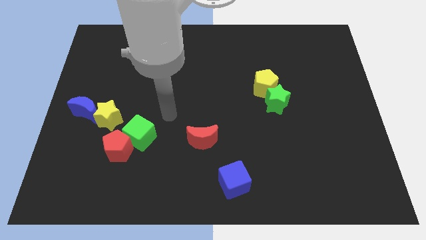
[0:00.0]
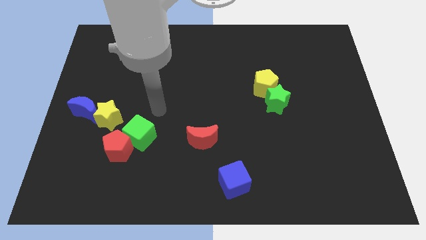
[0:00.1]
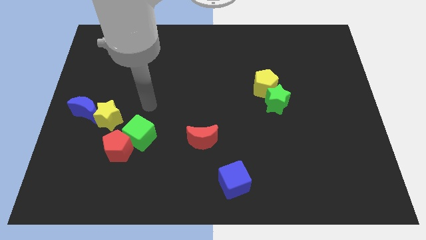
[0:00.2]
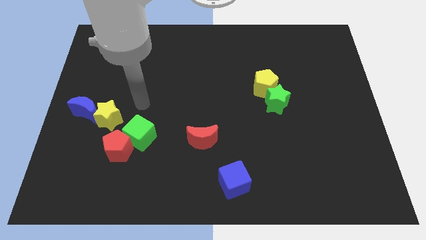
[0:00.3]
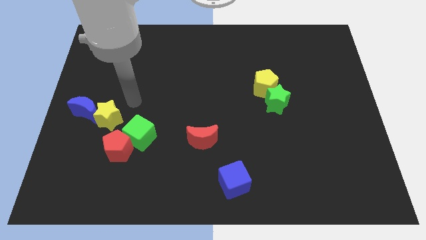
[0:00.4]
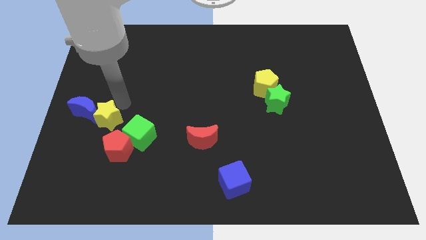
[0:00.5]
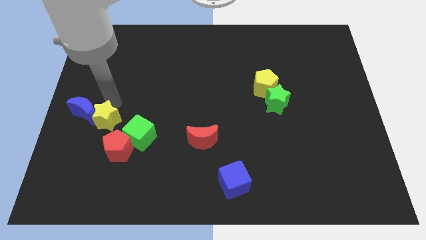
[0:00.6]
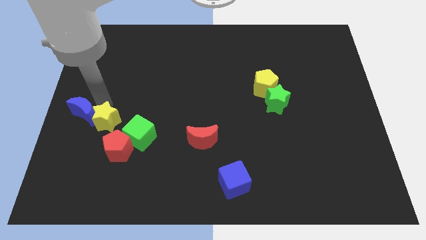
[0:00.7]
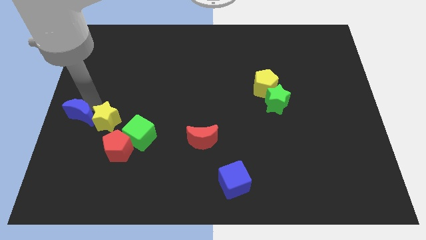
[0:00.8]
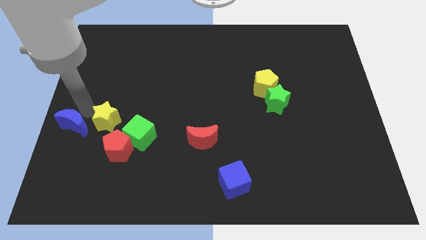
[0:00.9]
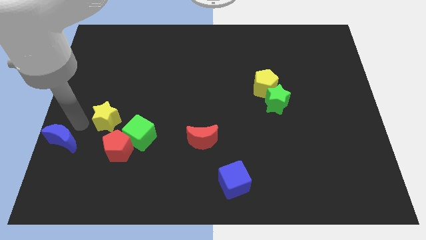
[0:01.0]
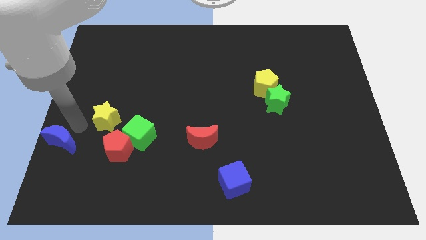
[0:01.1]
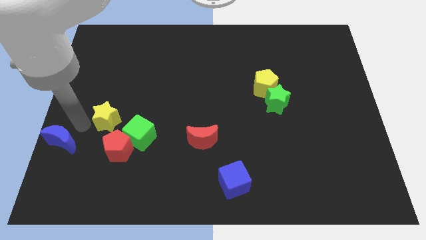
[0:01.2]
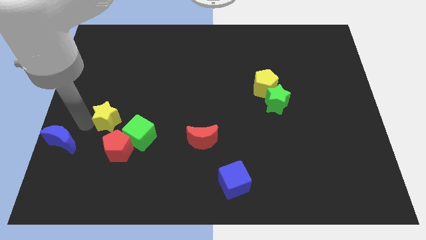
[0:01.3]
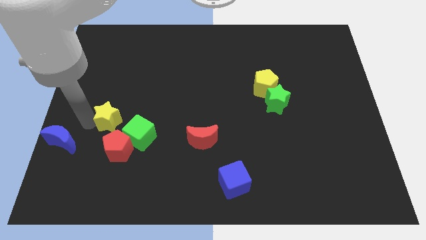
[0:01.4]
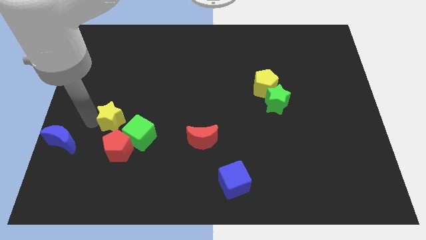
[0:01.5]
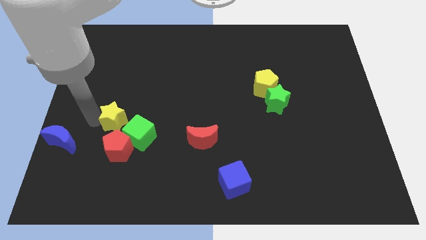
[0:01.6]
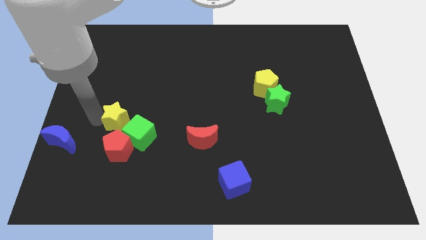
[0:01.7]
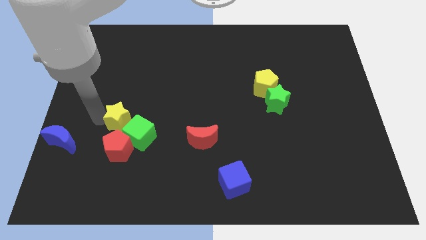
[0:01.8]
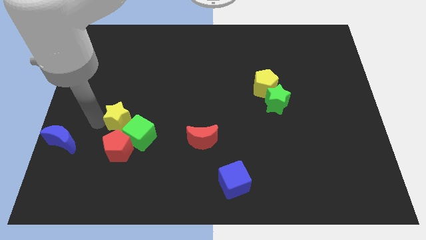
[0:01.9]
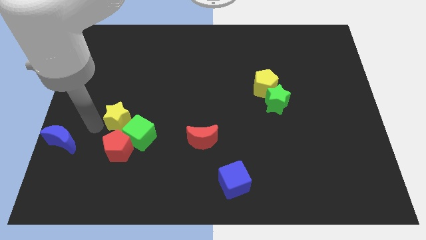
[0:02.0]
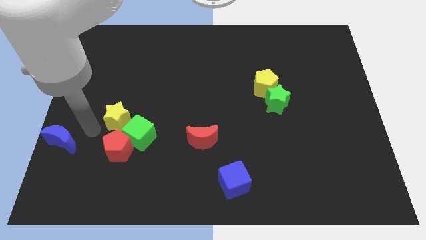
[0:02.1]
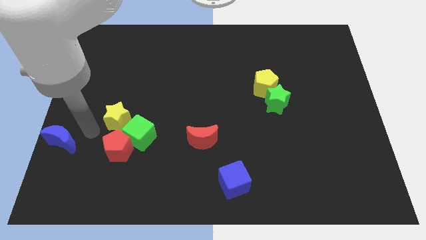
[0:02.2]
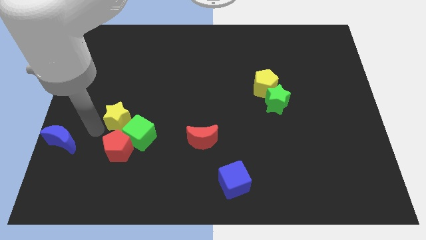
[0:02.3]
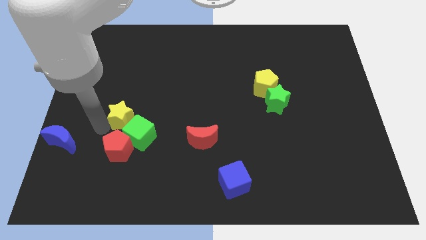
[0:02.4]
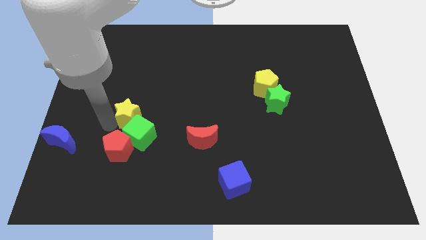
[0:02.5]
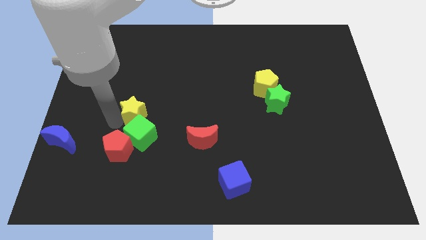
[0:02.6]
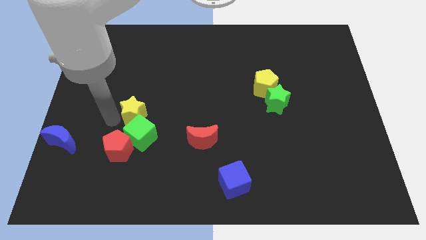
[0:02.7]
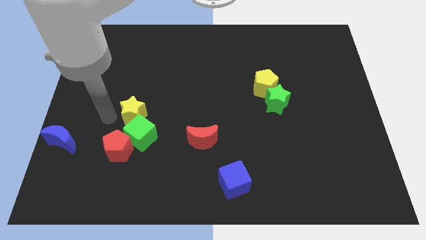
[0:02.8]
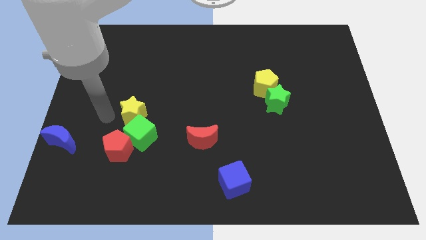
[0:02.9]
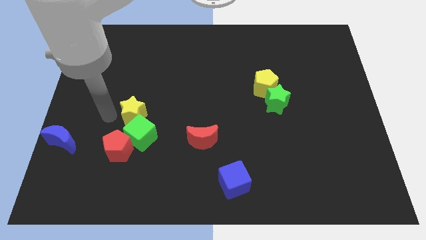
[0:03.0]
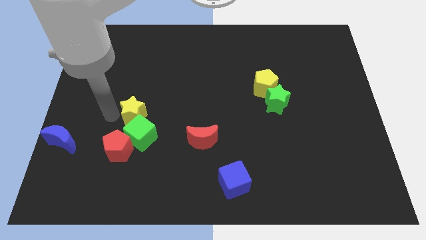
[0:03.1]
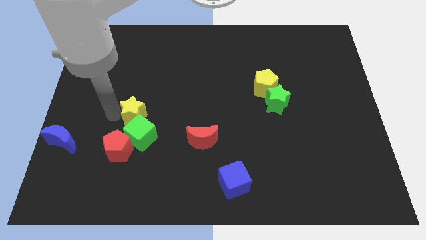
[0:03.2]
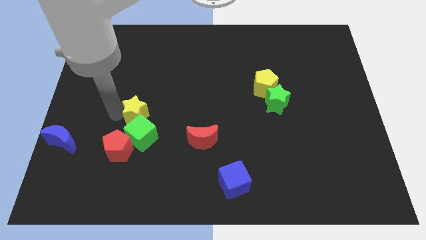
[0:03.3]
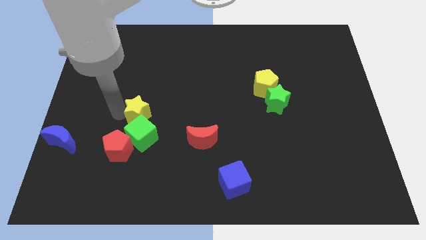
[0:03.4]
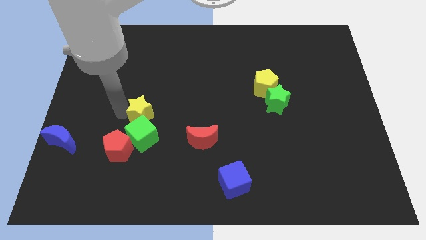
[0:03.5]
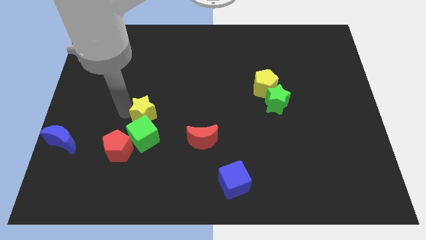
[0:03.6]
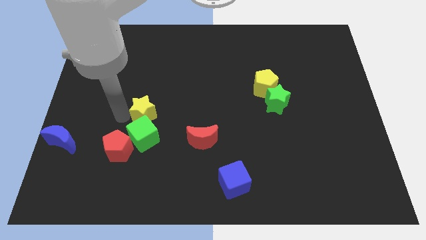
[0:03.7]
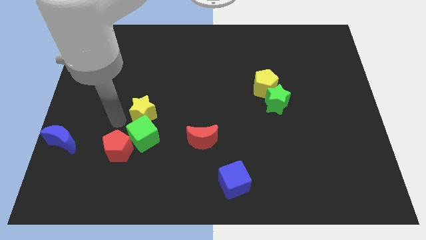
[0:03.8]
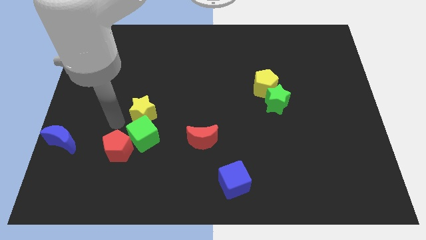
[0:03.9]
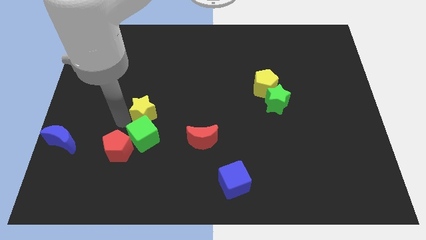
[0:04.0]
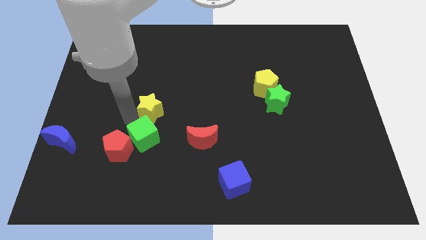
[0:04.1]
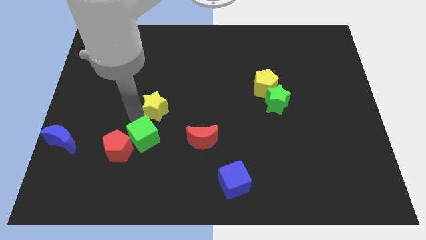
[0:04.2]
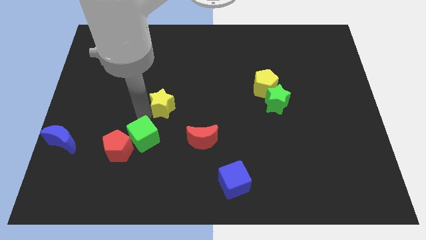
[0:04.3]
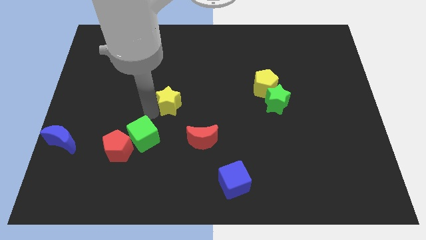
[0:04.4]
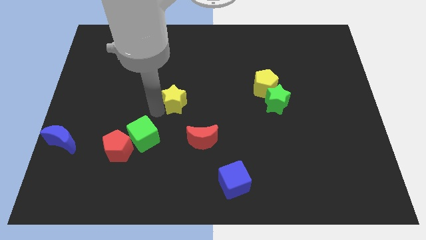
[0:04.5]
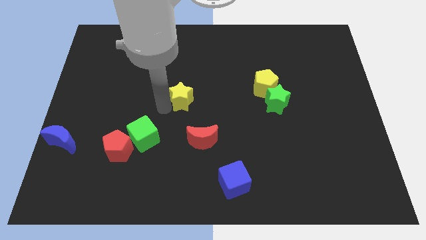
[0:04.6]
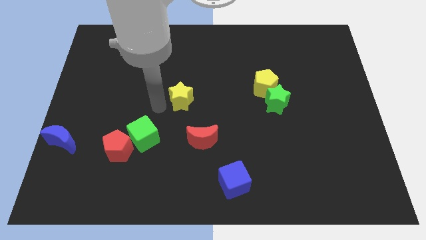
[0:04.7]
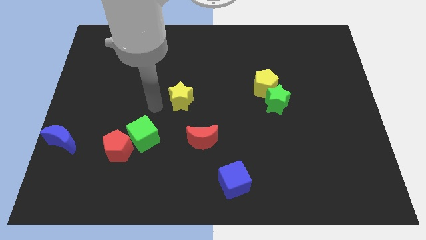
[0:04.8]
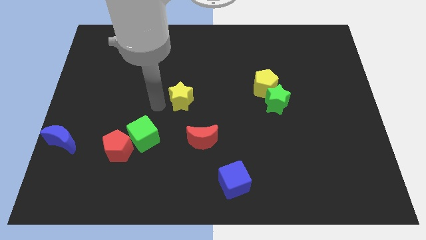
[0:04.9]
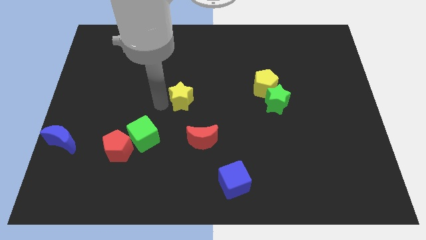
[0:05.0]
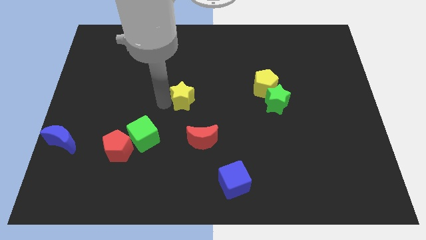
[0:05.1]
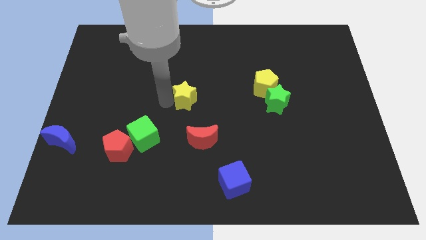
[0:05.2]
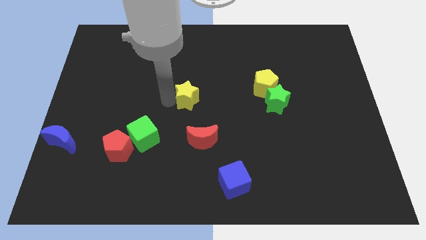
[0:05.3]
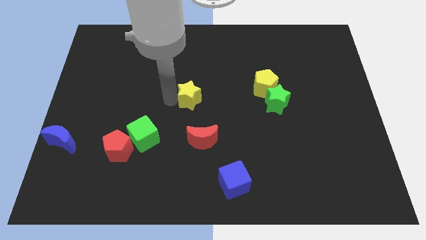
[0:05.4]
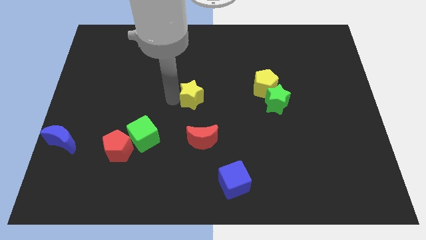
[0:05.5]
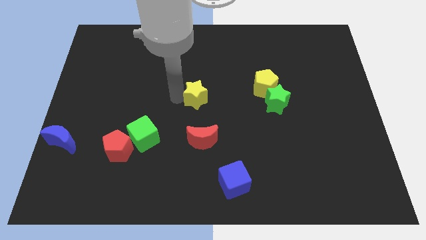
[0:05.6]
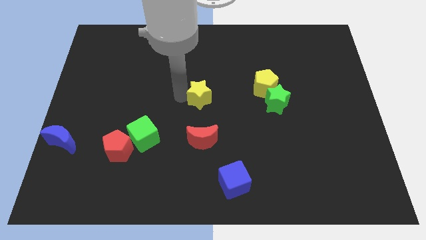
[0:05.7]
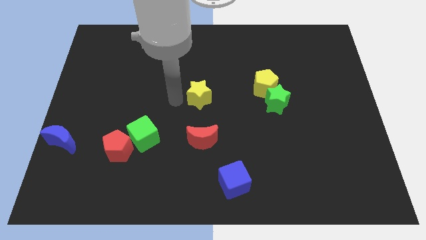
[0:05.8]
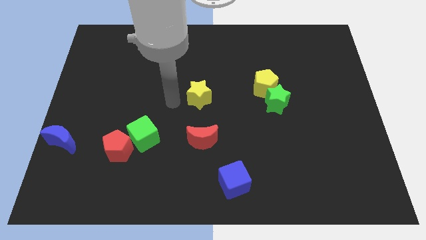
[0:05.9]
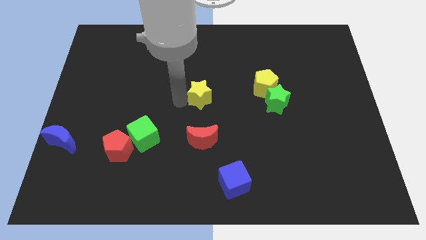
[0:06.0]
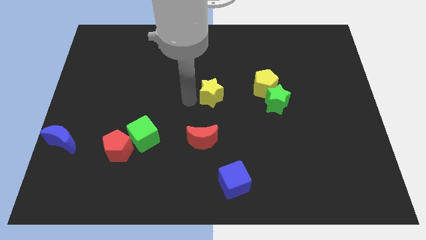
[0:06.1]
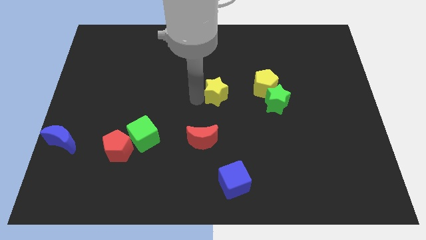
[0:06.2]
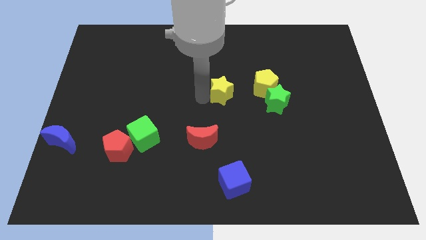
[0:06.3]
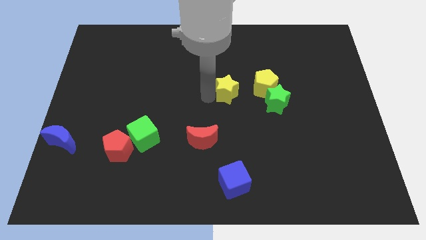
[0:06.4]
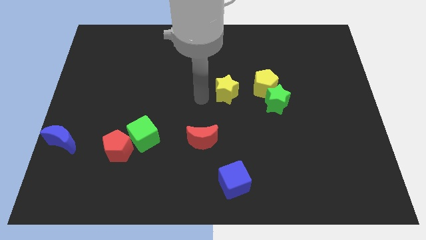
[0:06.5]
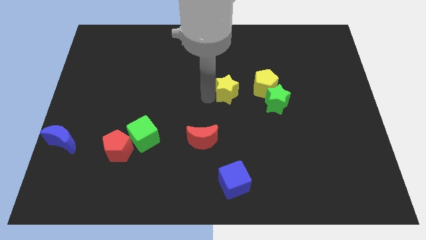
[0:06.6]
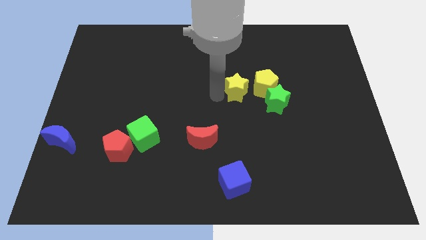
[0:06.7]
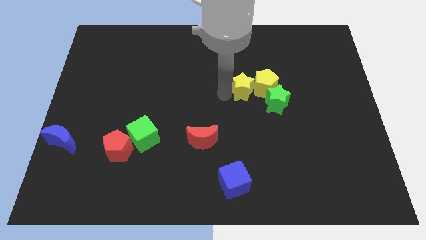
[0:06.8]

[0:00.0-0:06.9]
slide the yellow star next to the yellow pentagon

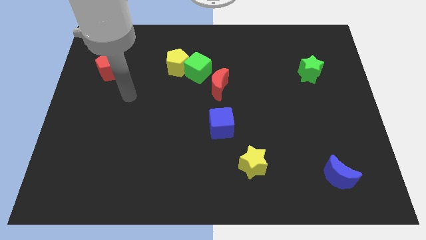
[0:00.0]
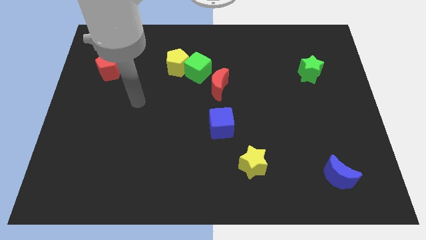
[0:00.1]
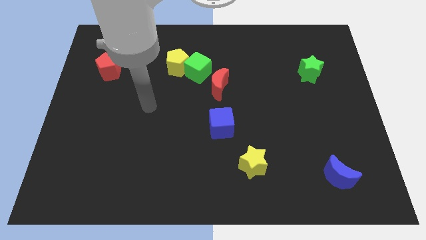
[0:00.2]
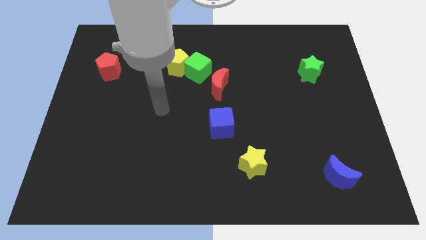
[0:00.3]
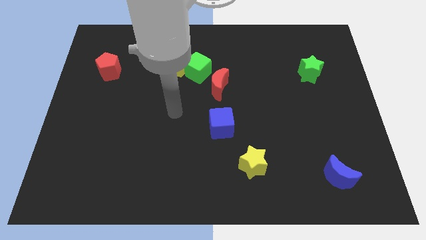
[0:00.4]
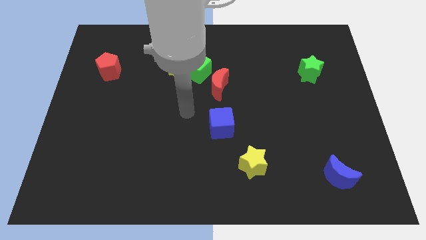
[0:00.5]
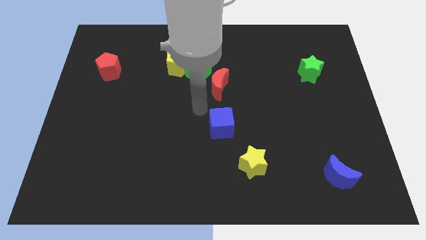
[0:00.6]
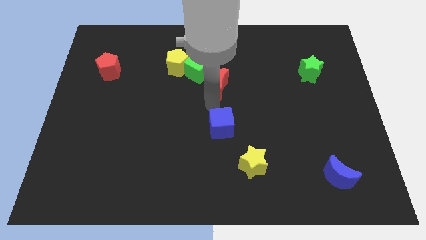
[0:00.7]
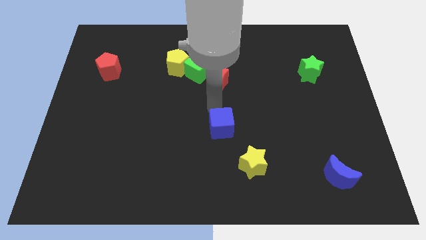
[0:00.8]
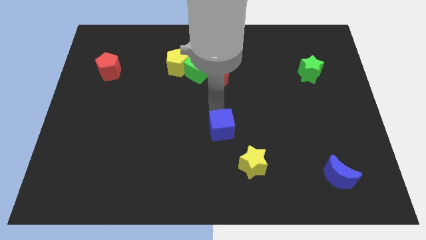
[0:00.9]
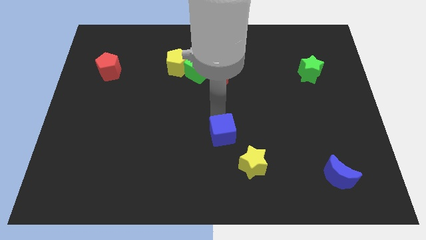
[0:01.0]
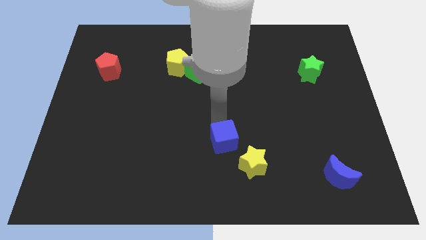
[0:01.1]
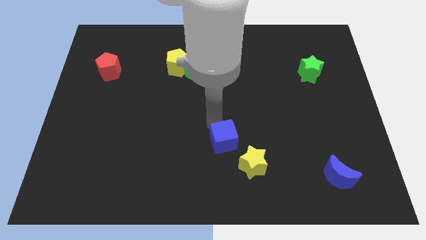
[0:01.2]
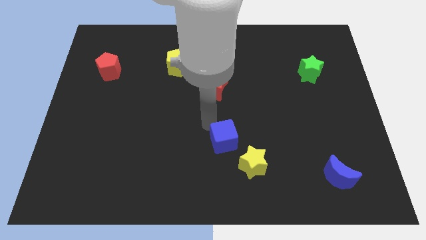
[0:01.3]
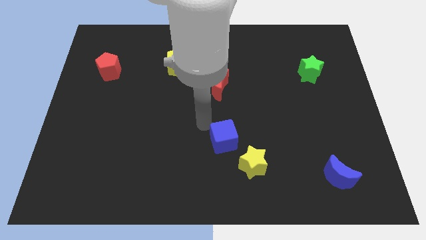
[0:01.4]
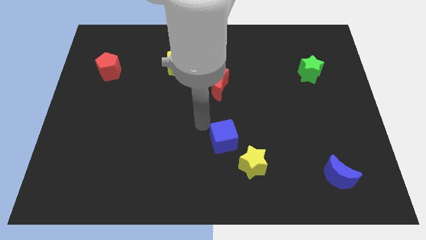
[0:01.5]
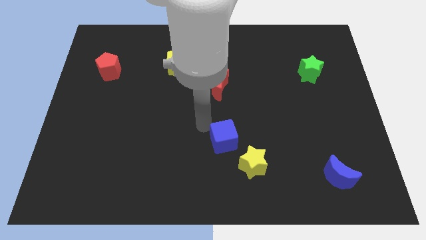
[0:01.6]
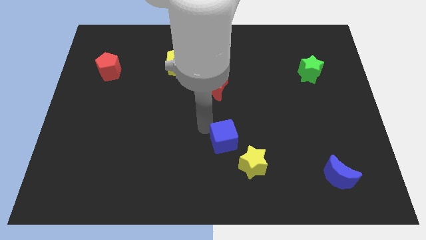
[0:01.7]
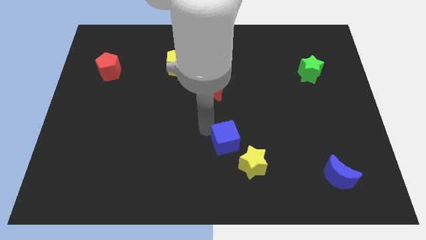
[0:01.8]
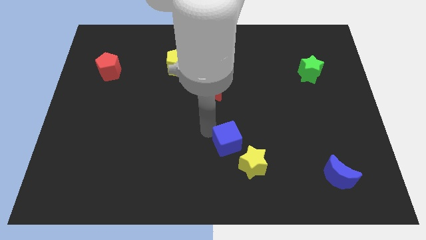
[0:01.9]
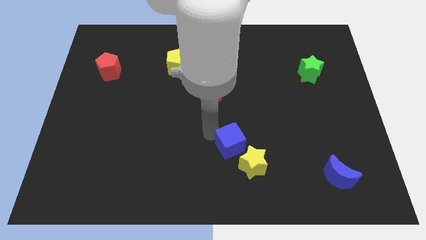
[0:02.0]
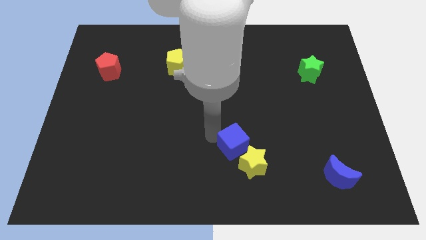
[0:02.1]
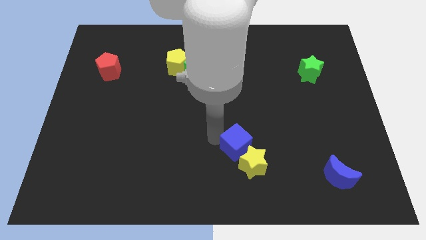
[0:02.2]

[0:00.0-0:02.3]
slide the blue cube to the yellow star
